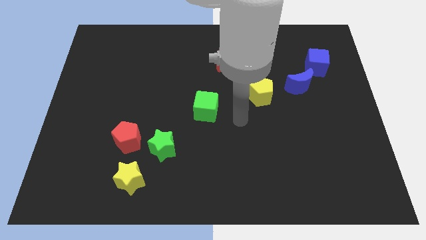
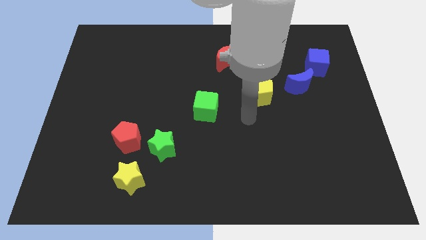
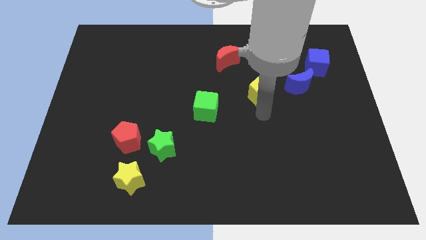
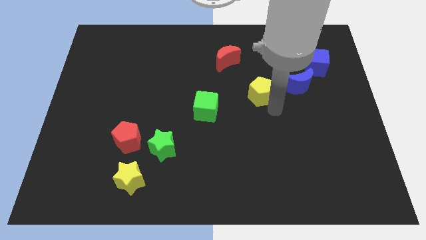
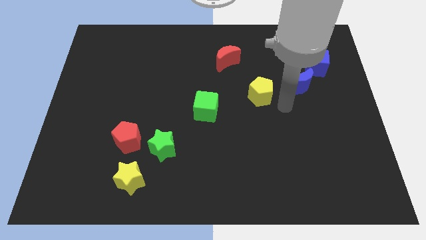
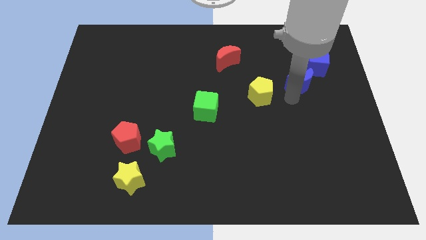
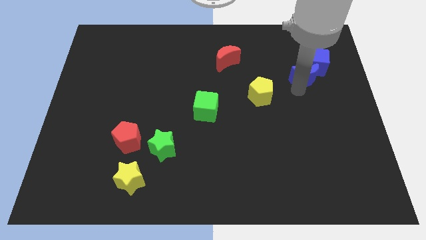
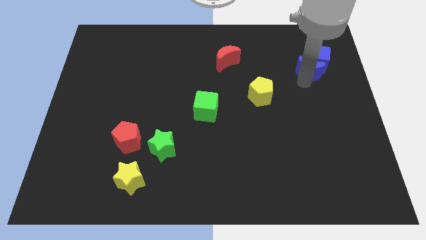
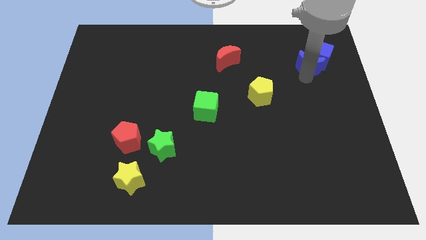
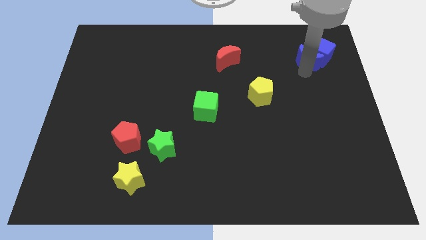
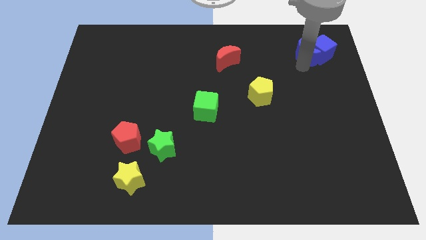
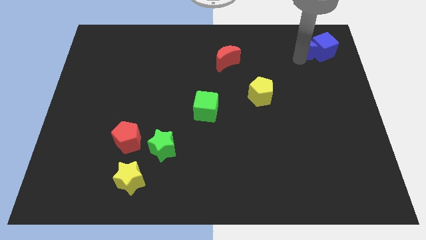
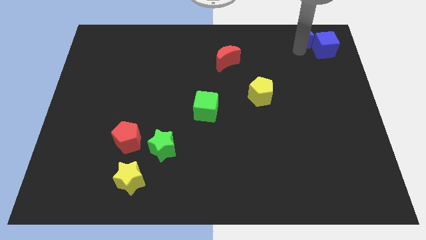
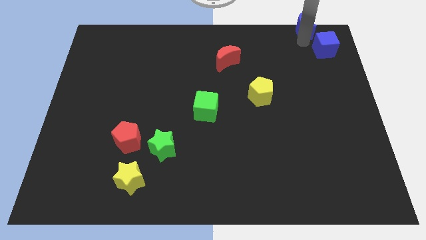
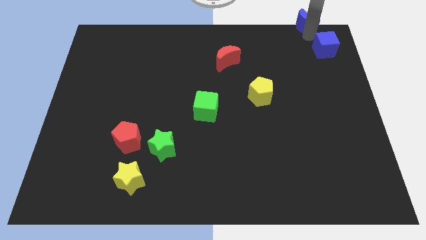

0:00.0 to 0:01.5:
move the blue cube away from the blue moon

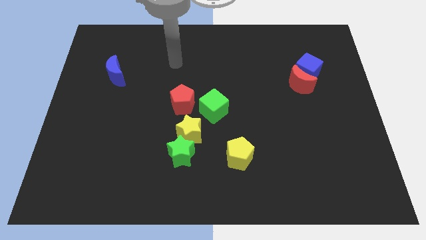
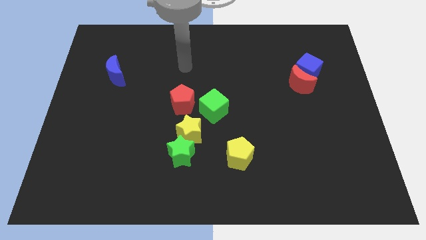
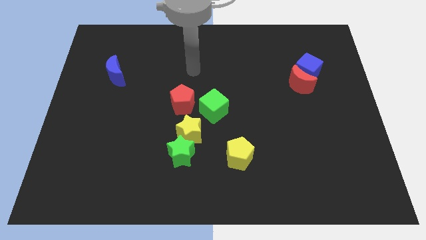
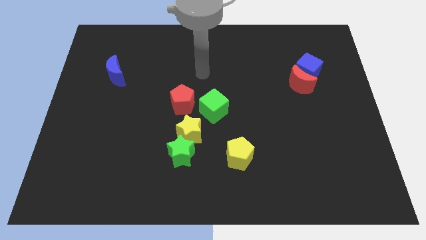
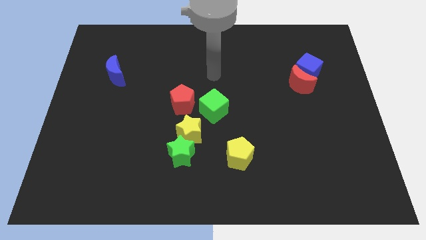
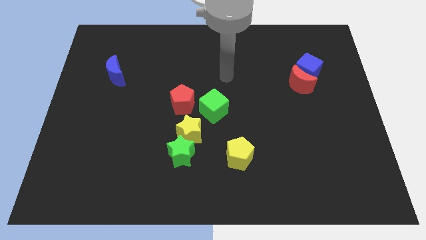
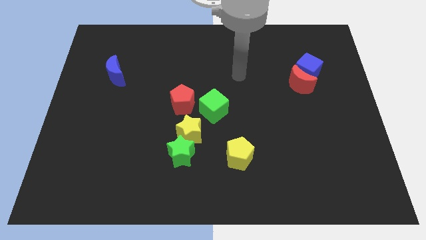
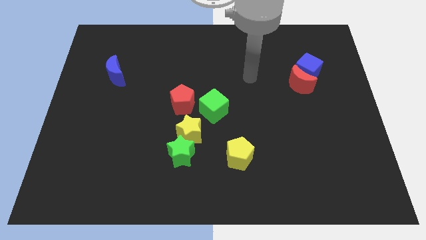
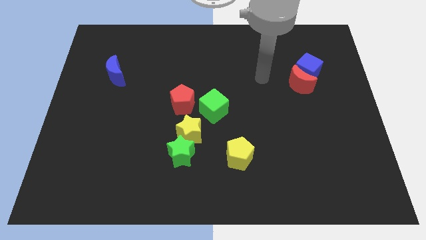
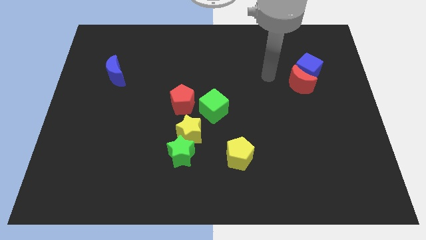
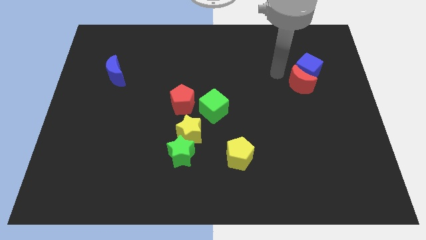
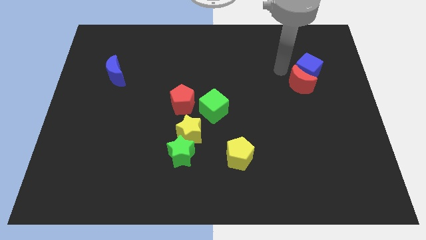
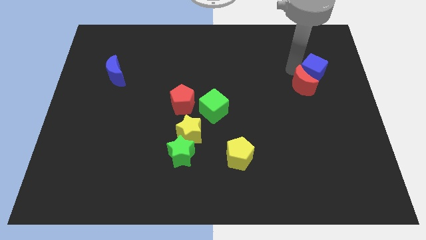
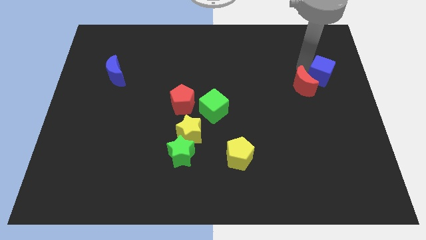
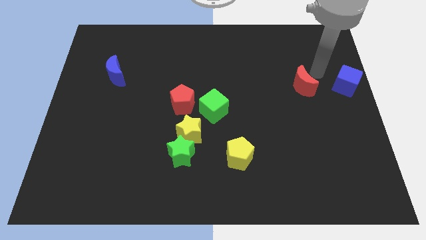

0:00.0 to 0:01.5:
separate the red moon from the blue cube

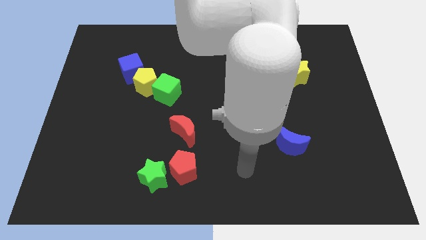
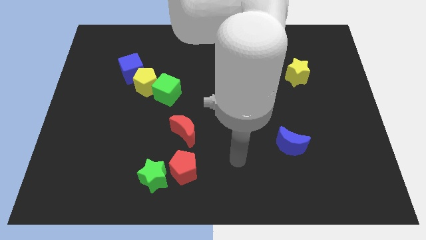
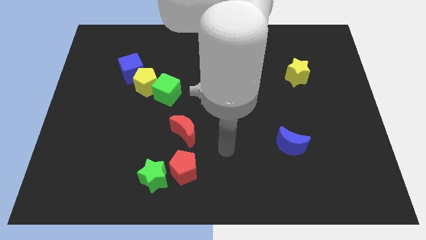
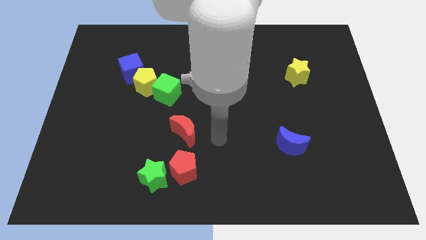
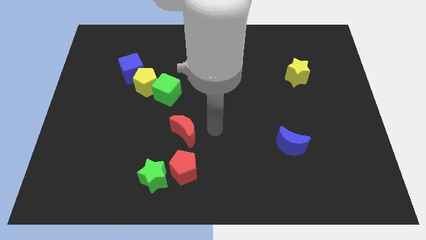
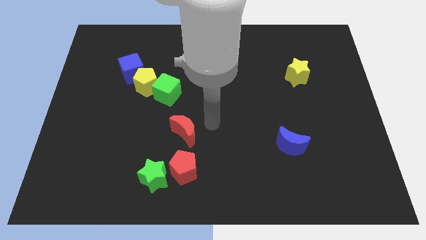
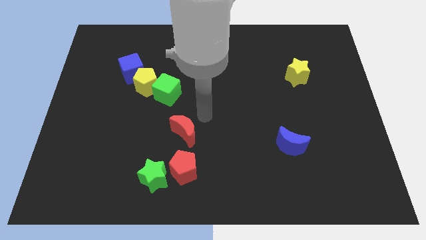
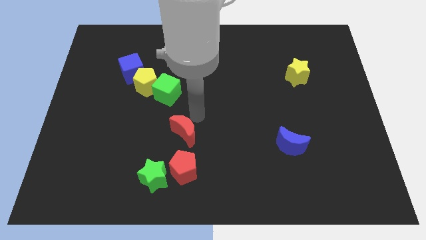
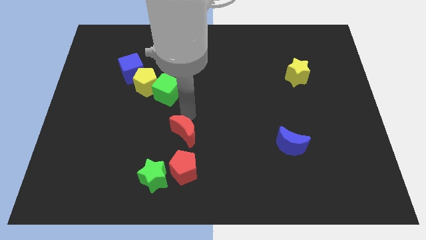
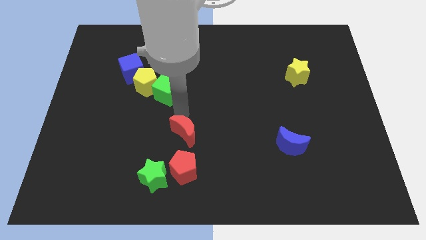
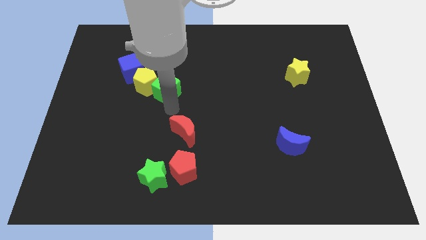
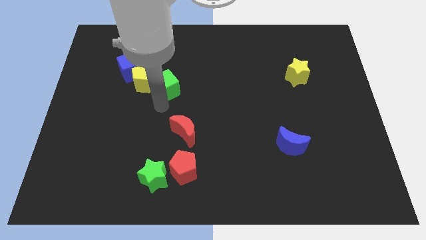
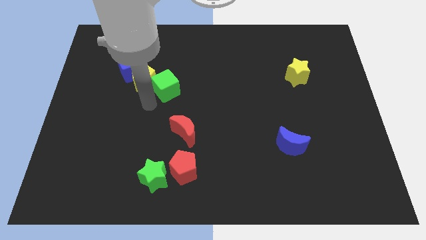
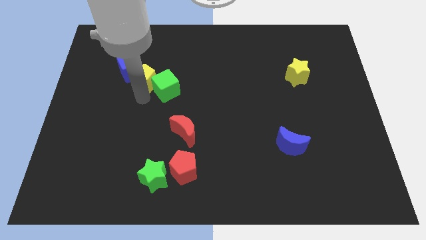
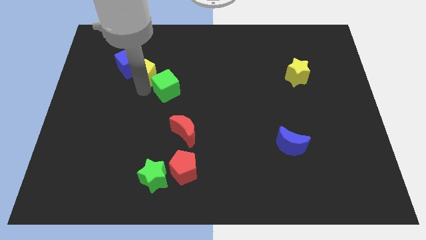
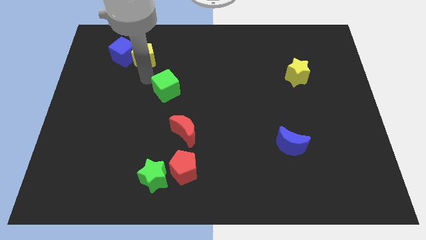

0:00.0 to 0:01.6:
separate the green cube from the yellow pentagon

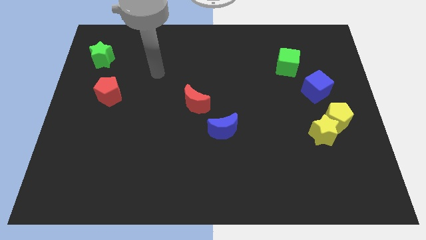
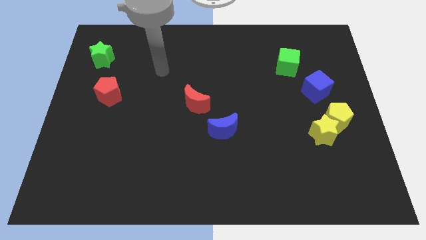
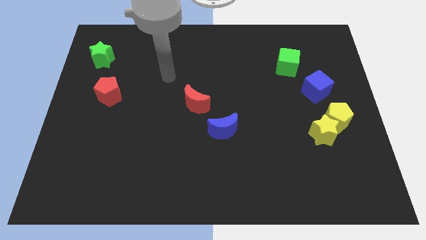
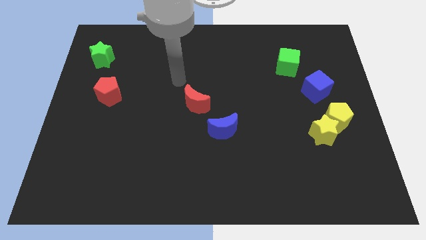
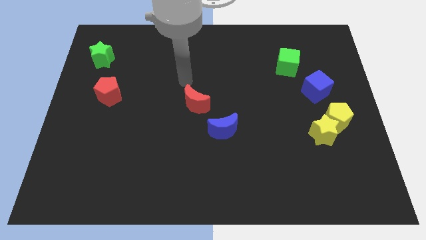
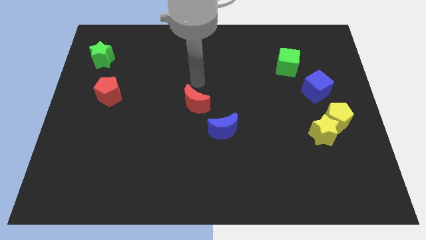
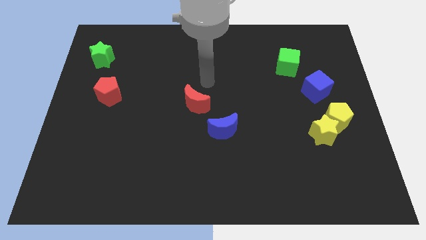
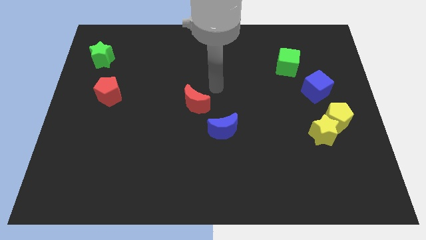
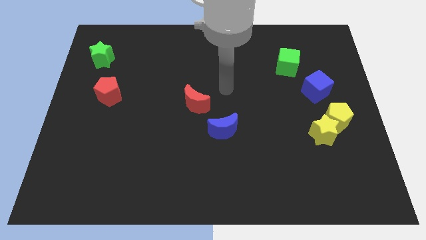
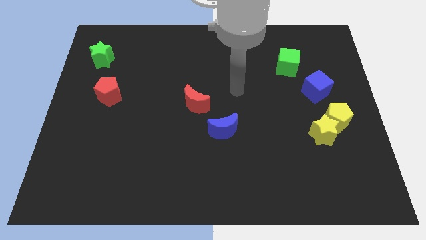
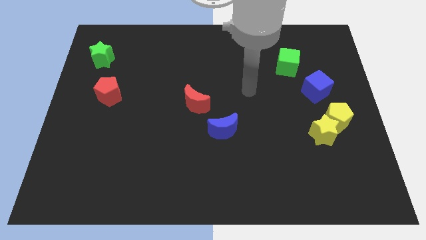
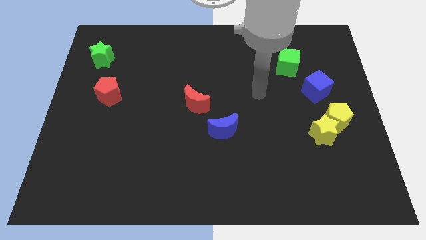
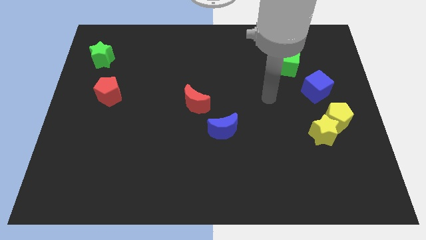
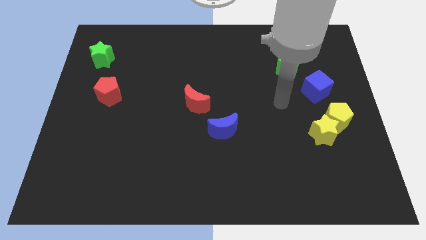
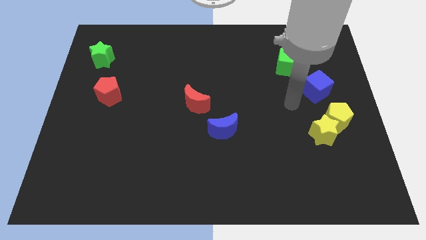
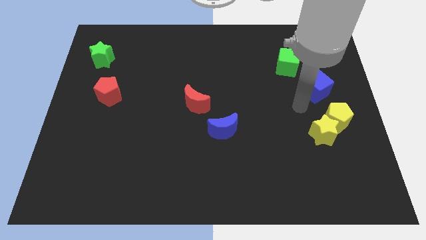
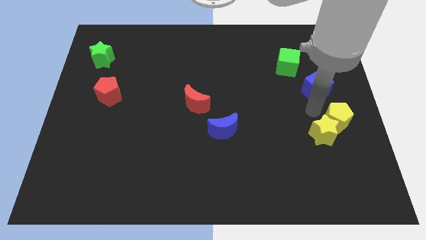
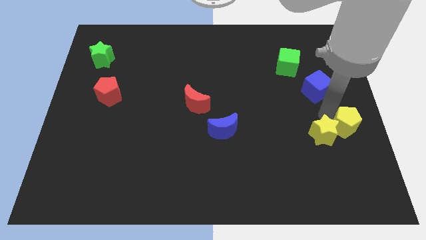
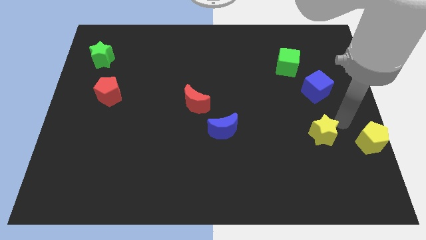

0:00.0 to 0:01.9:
move the yellow star away from the yellow pentagon

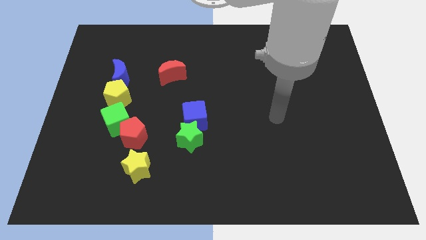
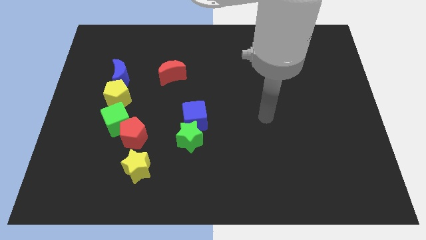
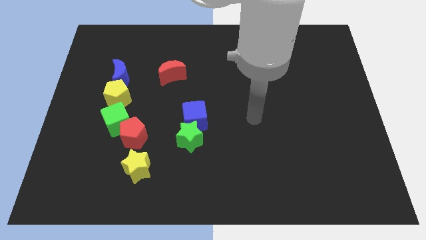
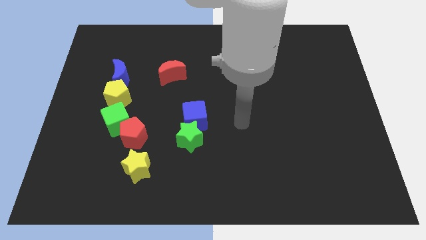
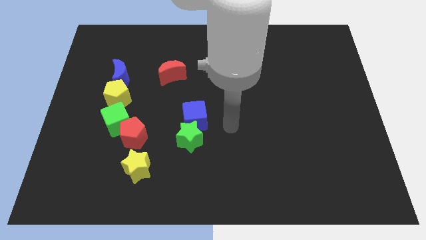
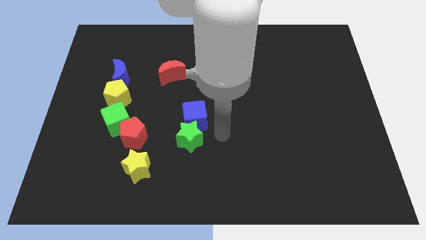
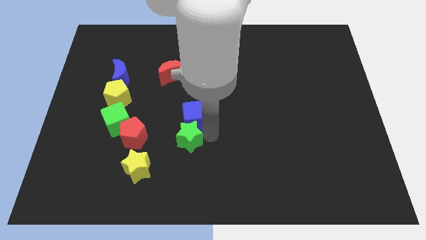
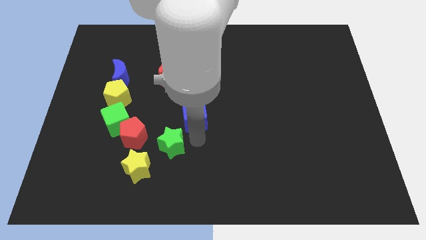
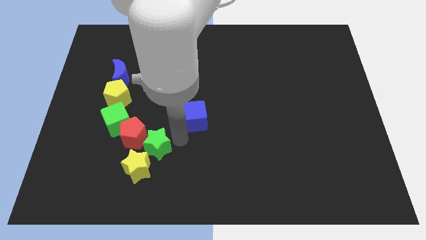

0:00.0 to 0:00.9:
move the blue cube away from the green star

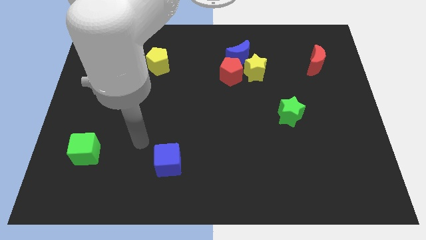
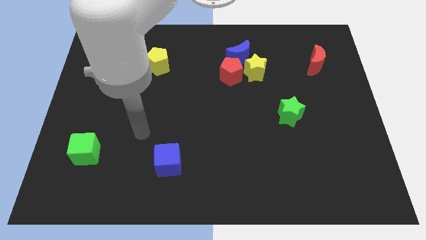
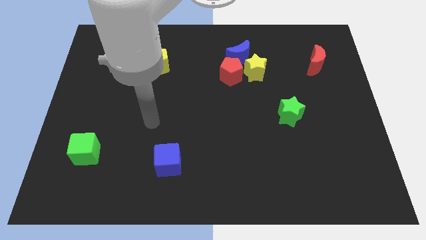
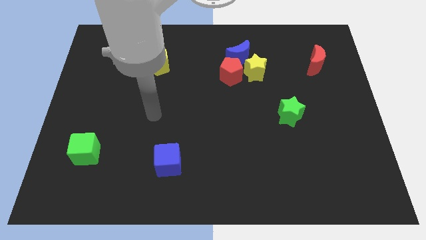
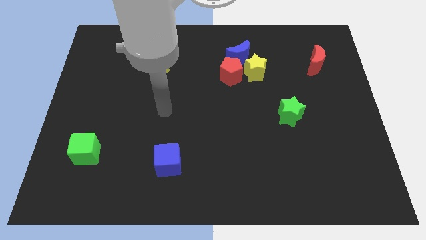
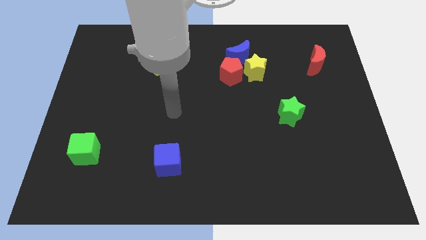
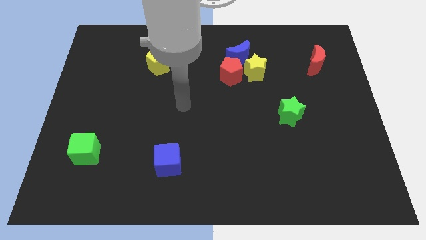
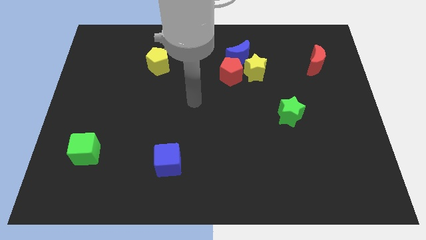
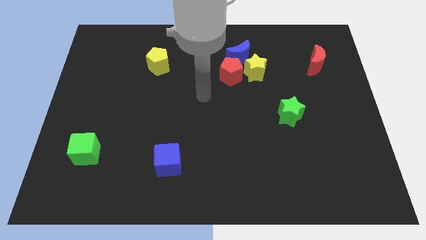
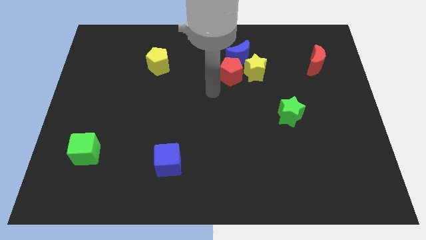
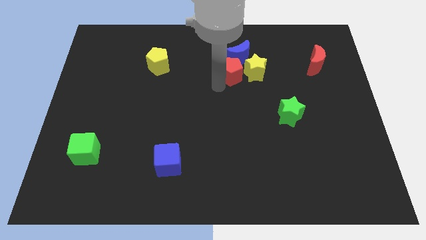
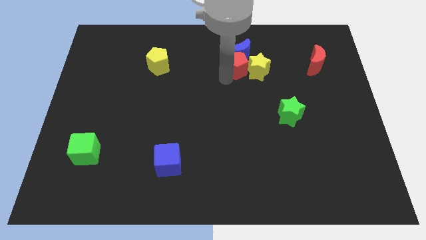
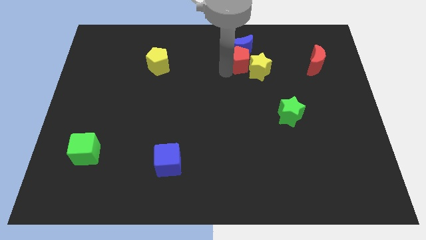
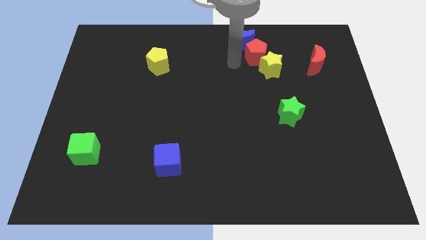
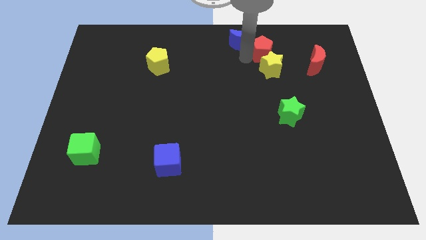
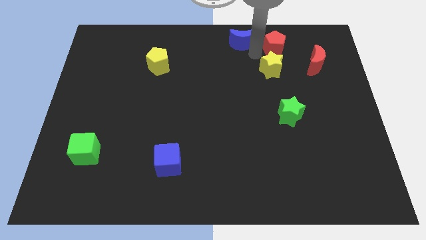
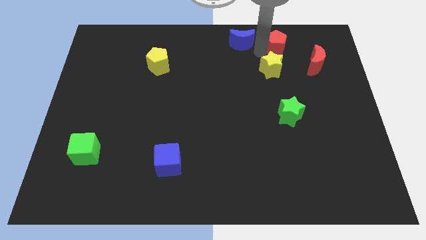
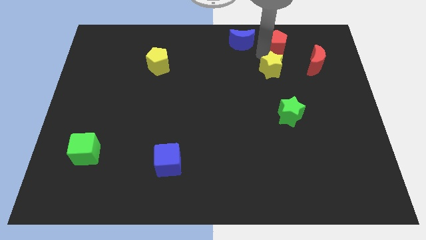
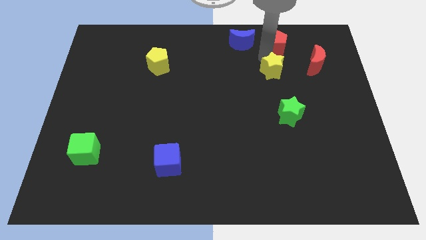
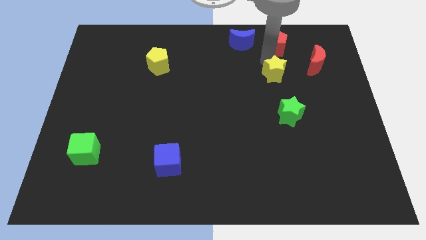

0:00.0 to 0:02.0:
separate the yellow star from the red pentagon and blue moon
